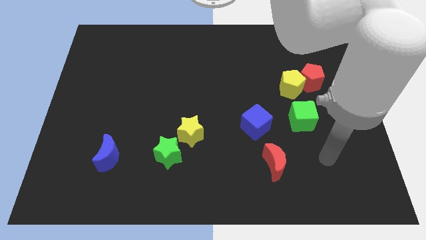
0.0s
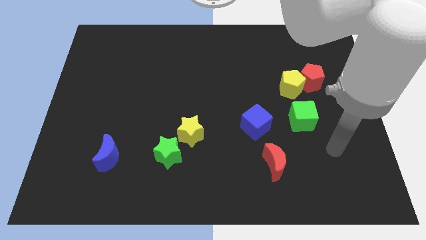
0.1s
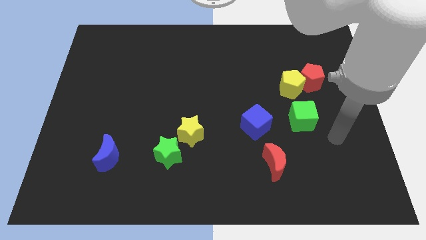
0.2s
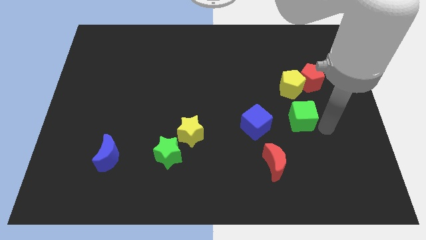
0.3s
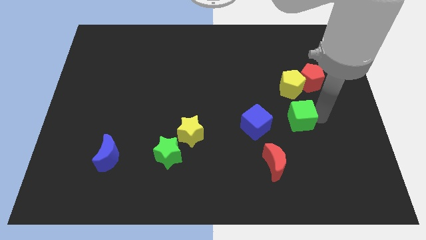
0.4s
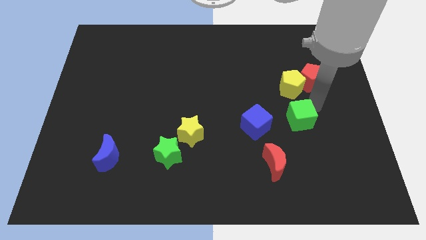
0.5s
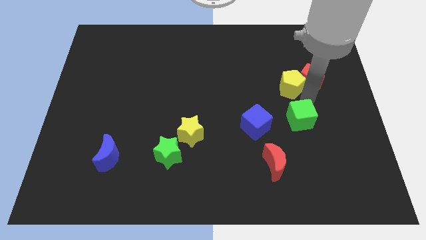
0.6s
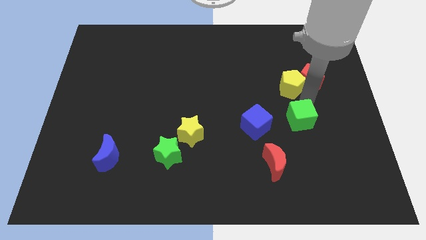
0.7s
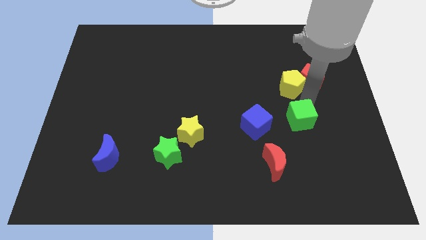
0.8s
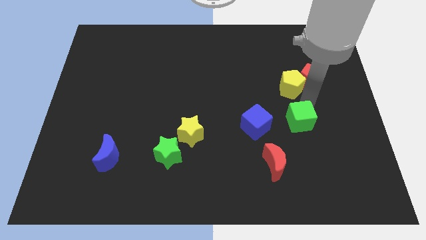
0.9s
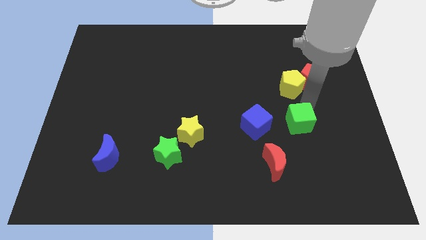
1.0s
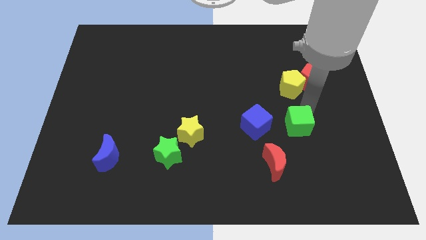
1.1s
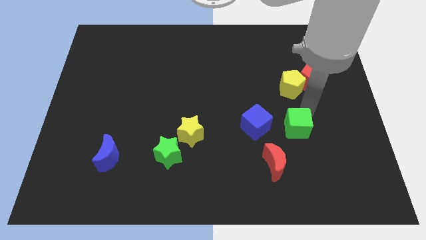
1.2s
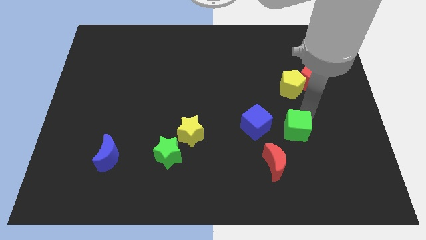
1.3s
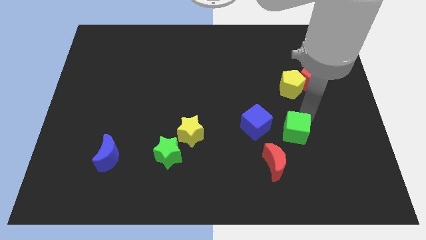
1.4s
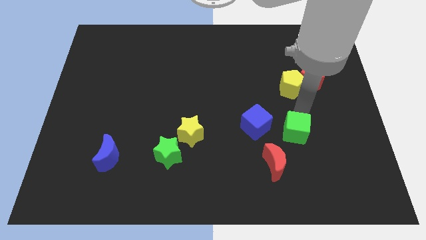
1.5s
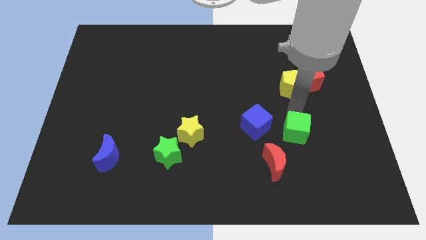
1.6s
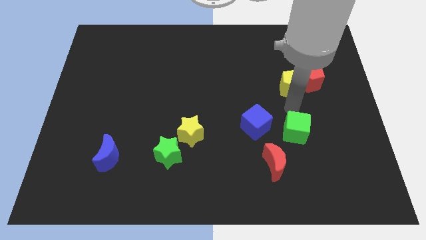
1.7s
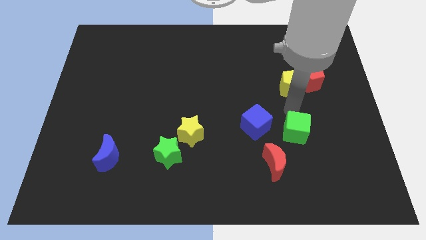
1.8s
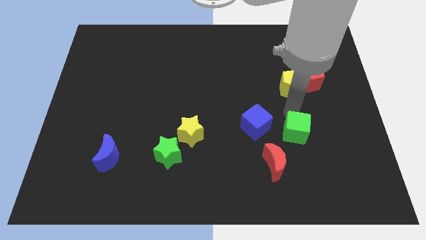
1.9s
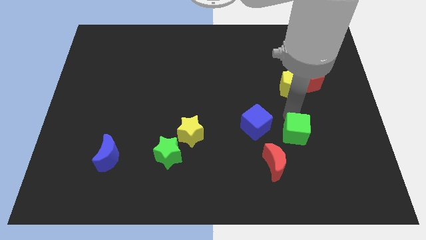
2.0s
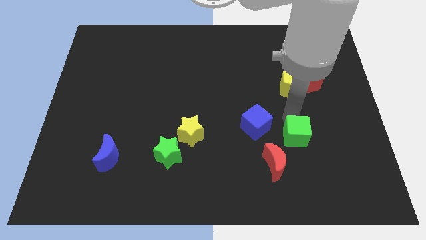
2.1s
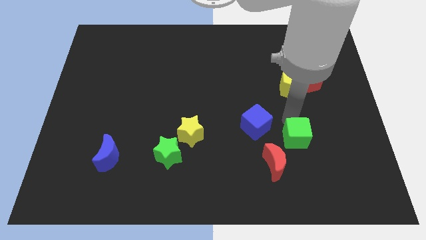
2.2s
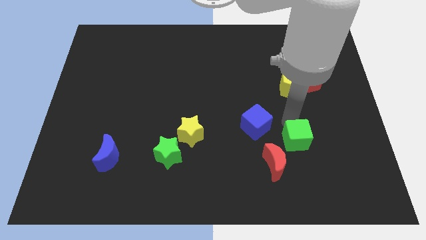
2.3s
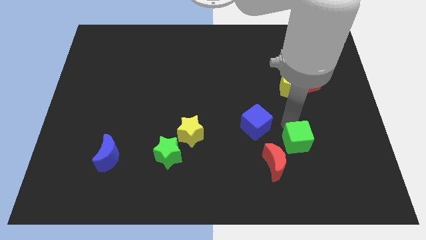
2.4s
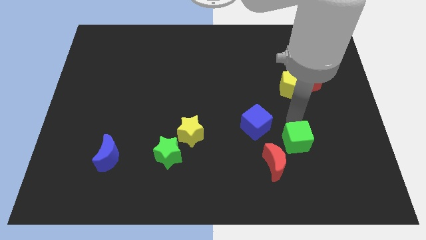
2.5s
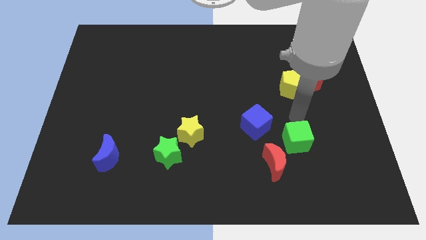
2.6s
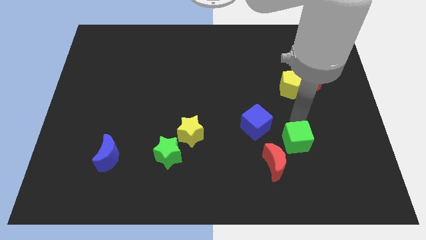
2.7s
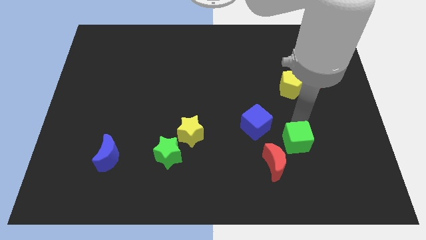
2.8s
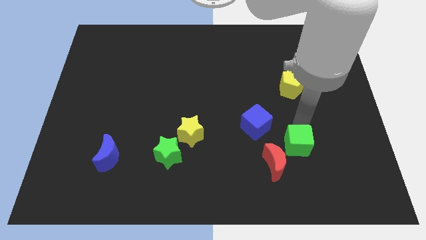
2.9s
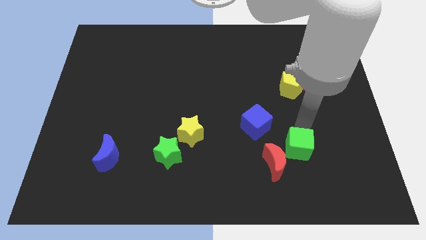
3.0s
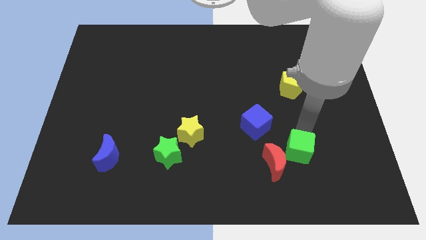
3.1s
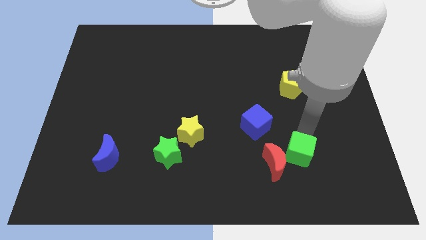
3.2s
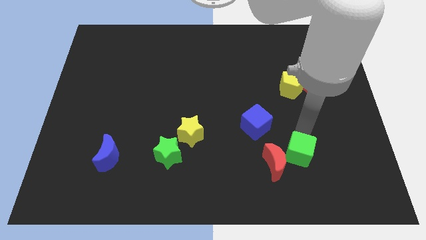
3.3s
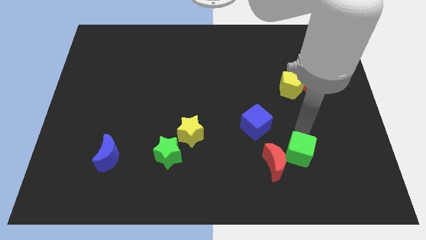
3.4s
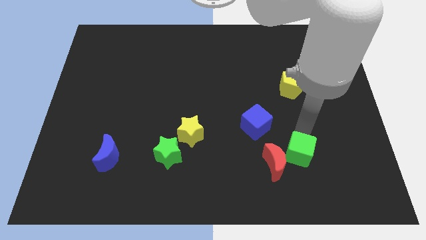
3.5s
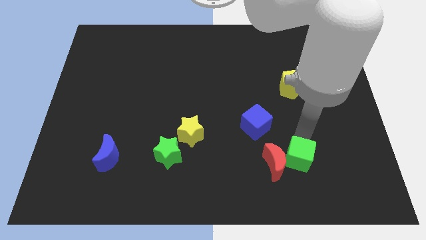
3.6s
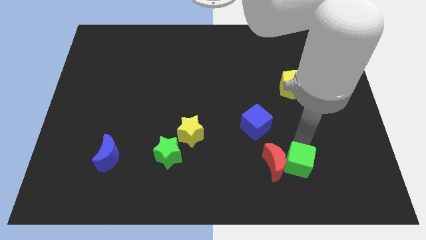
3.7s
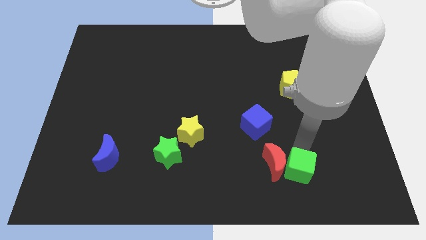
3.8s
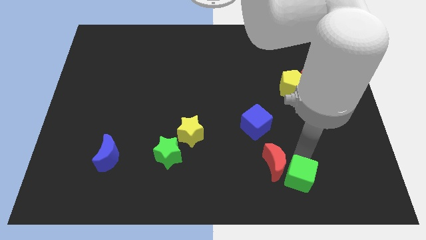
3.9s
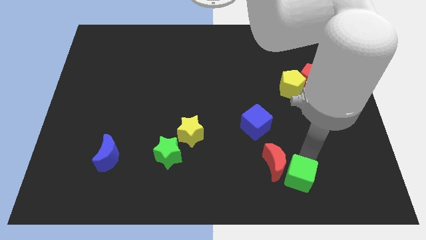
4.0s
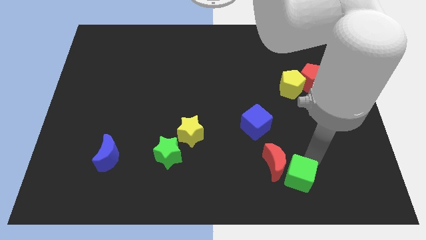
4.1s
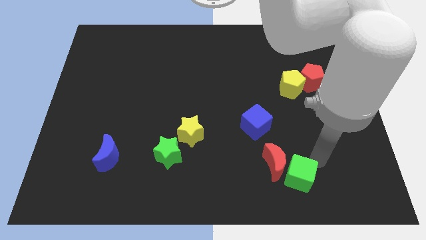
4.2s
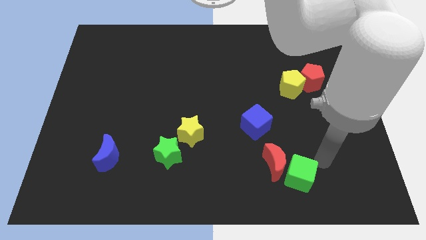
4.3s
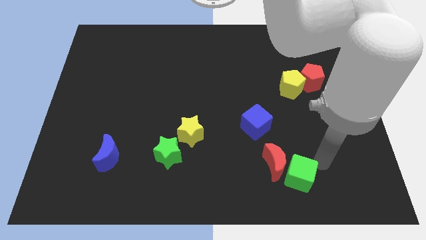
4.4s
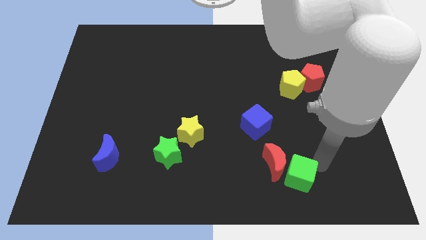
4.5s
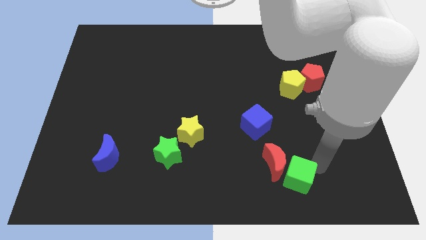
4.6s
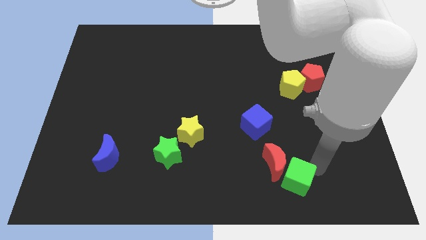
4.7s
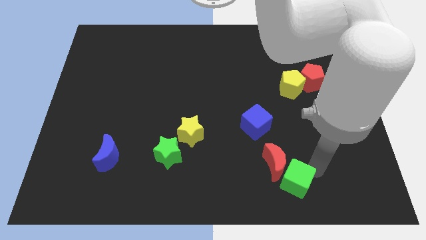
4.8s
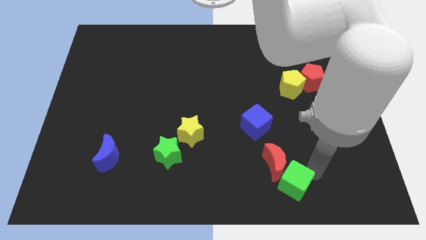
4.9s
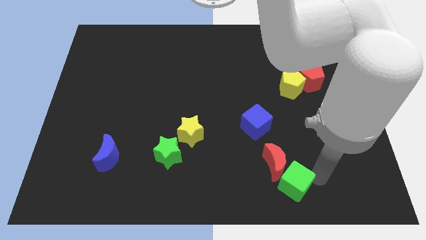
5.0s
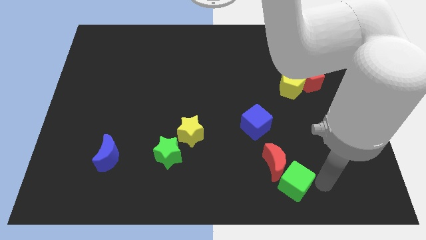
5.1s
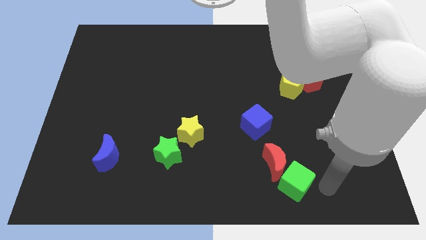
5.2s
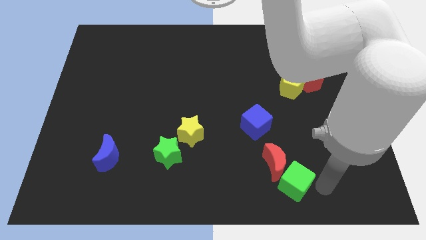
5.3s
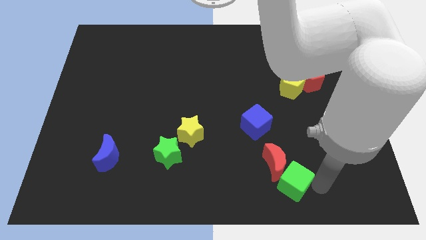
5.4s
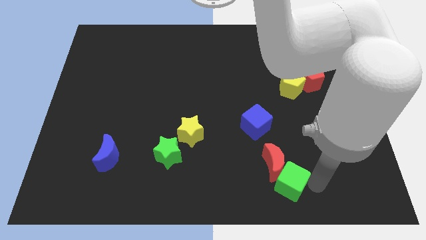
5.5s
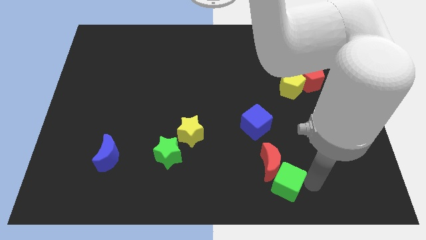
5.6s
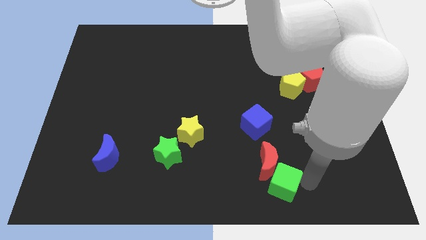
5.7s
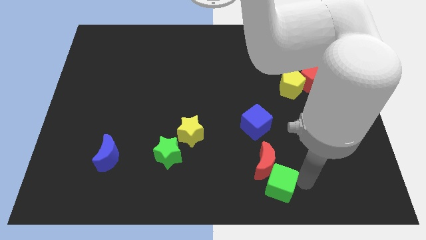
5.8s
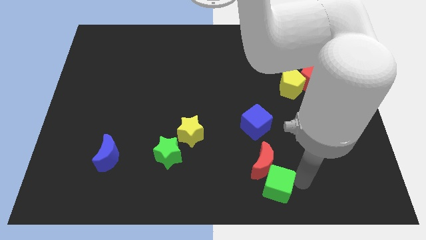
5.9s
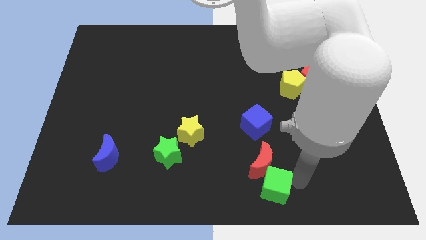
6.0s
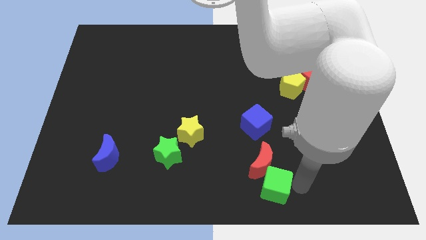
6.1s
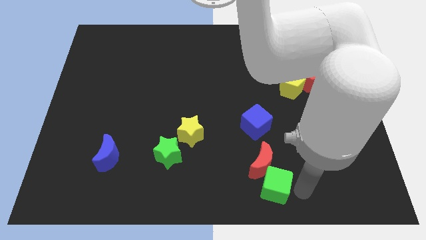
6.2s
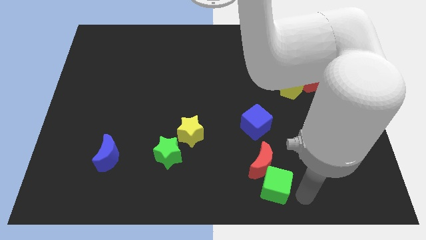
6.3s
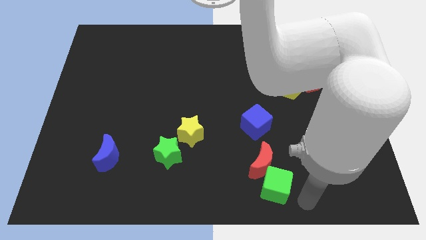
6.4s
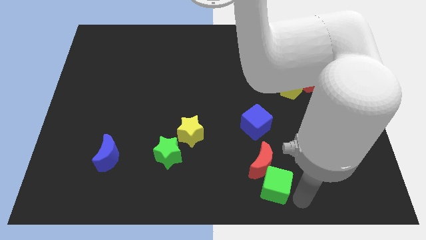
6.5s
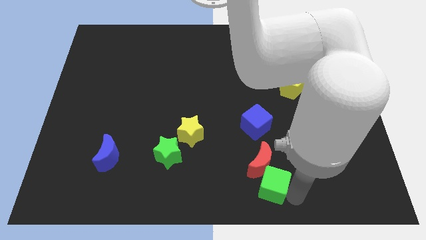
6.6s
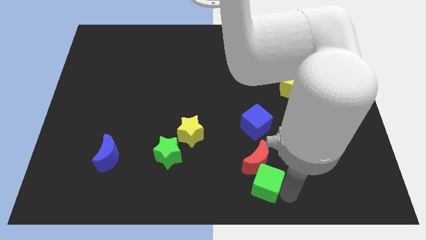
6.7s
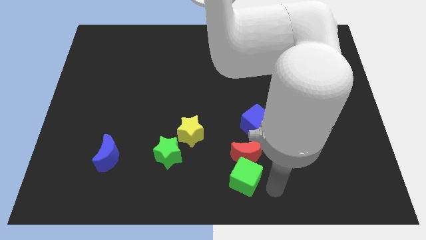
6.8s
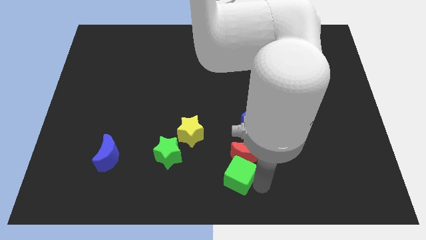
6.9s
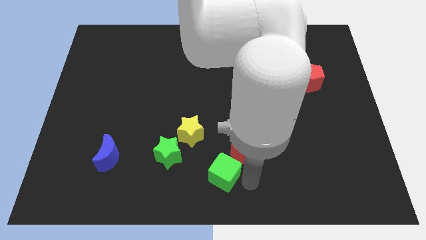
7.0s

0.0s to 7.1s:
push the green cube to the left side of the red moon

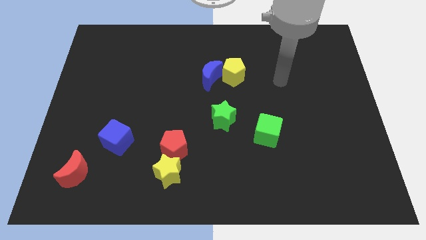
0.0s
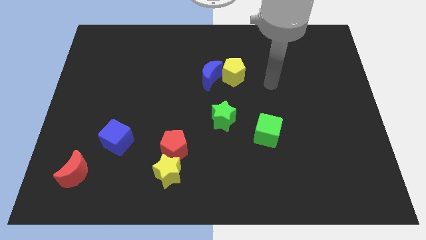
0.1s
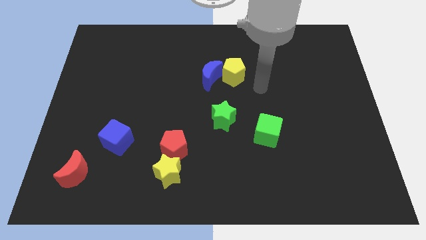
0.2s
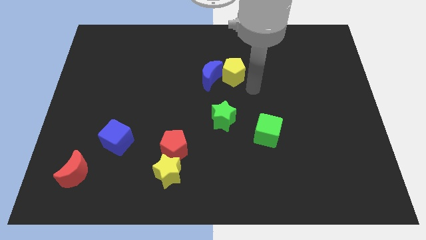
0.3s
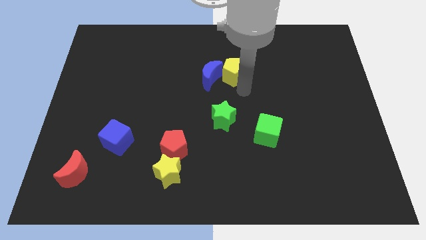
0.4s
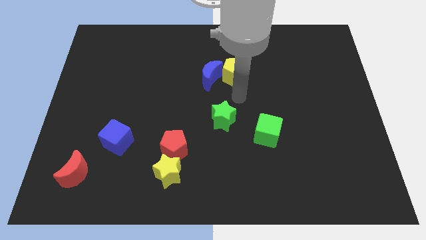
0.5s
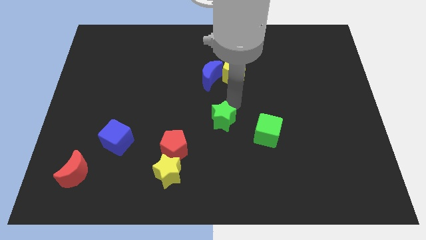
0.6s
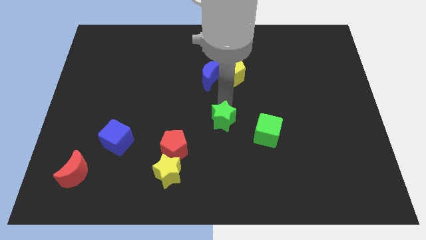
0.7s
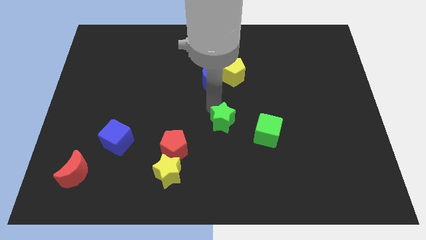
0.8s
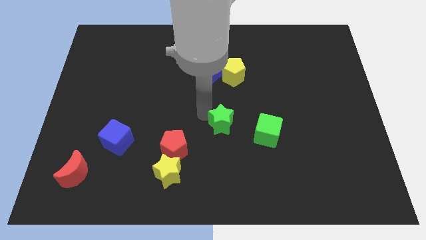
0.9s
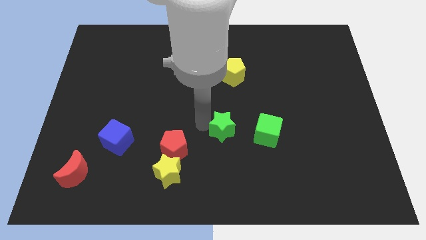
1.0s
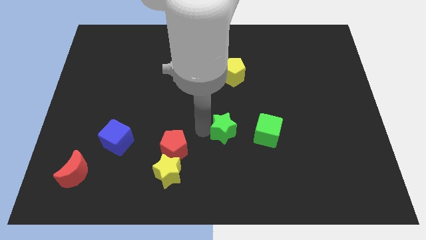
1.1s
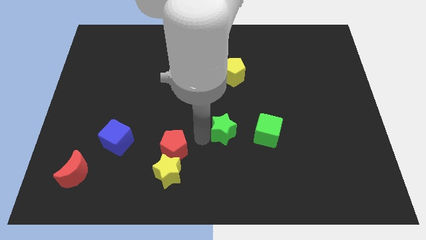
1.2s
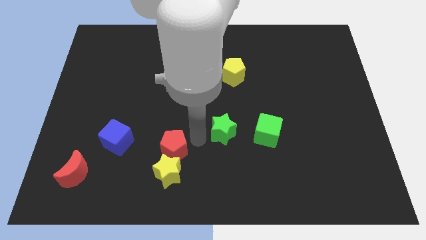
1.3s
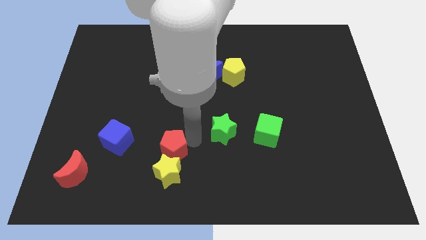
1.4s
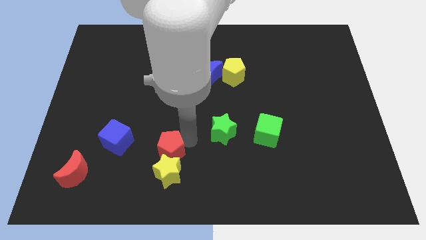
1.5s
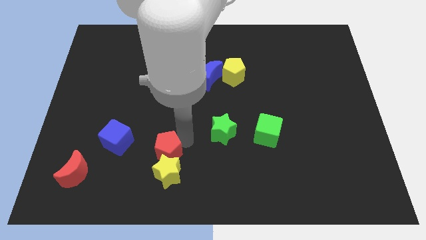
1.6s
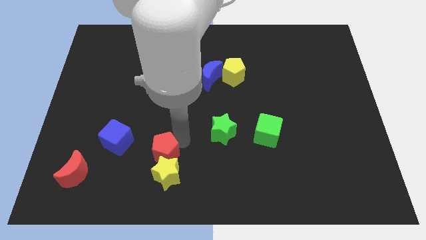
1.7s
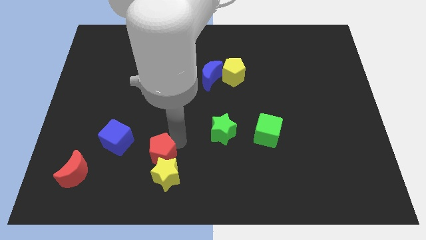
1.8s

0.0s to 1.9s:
slide the red pentagon to the bottom right side of the blue cube
